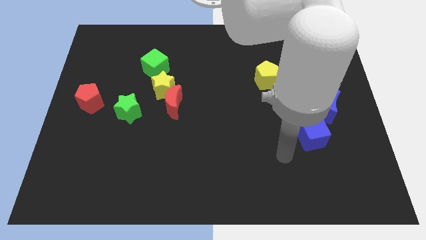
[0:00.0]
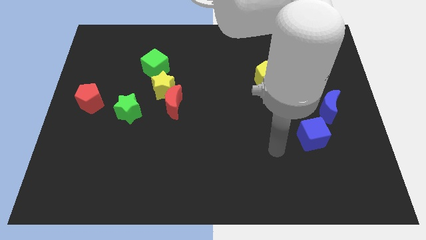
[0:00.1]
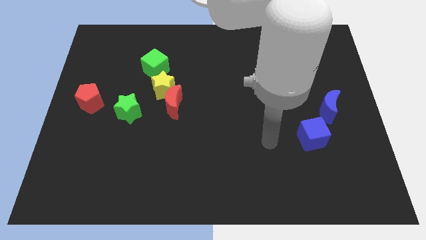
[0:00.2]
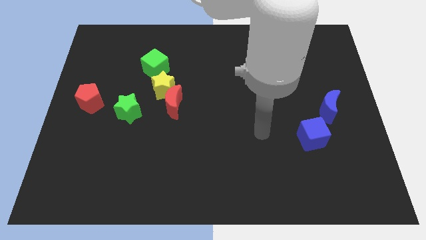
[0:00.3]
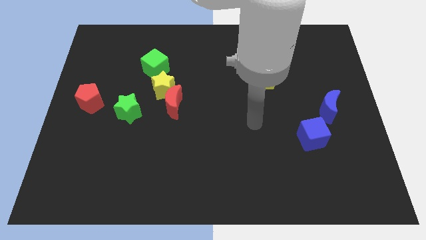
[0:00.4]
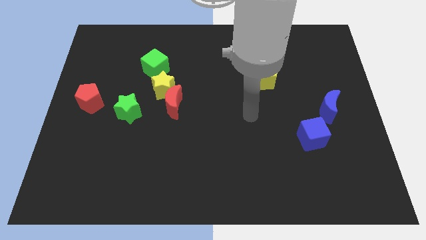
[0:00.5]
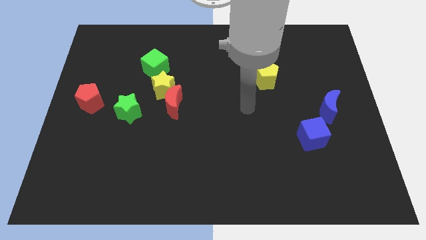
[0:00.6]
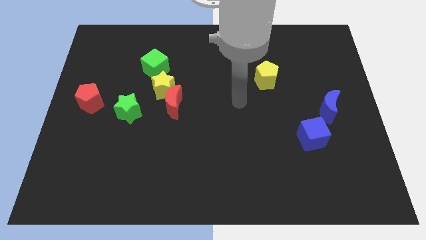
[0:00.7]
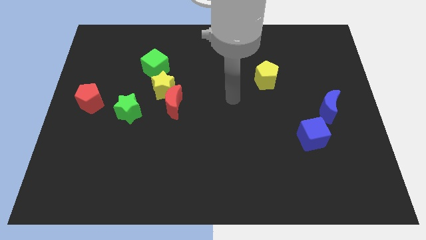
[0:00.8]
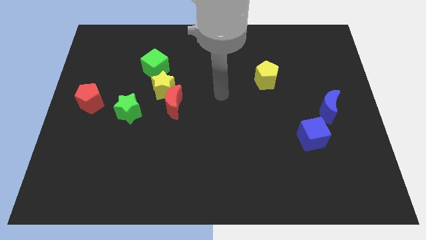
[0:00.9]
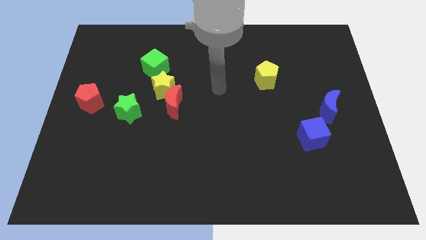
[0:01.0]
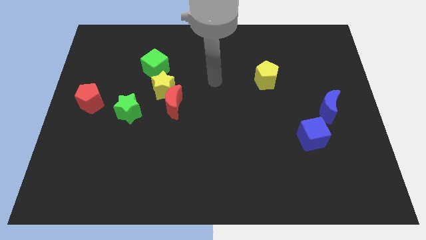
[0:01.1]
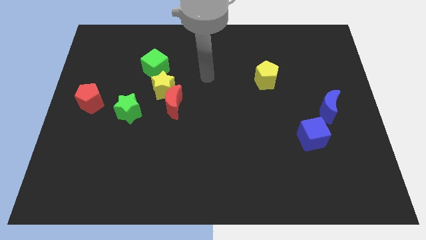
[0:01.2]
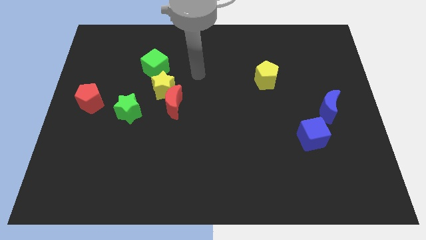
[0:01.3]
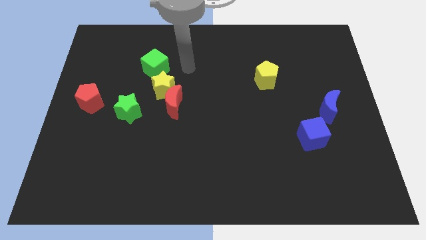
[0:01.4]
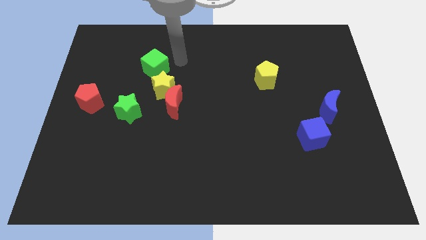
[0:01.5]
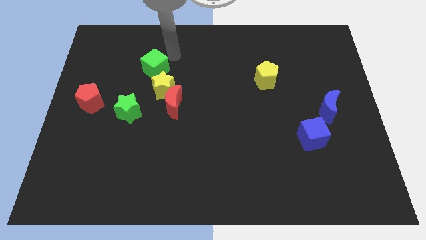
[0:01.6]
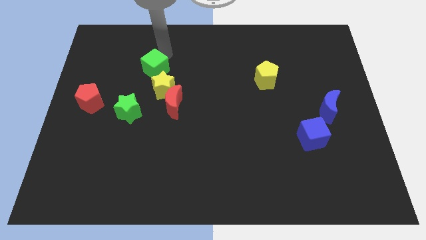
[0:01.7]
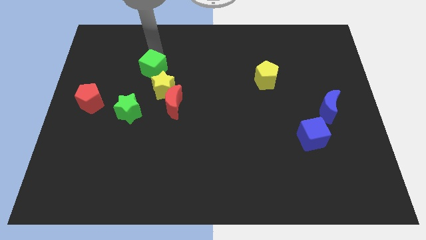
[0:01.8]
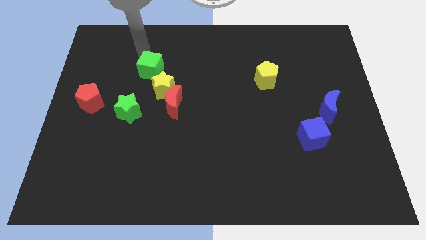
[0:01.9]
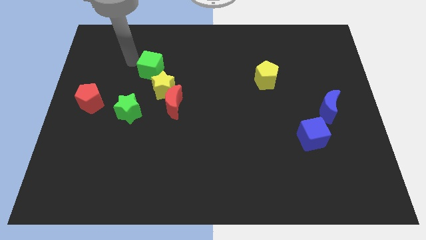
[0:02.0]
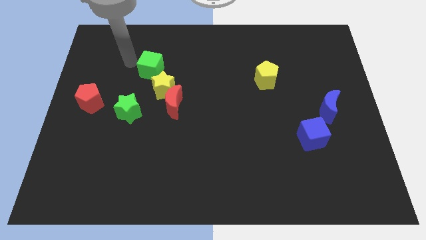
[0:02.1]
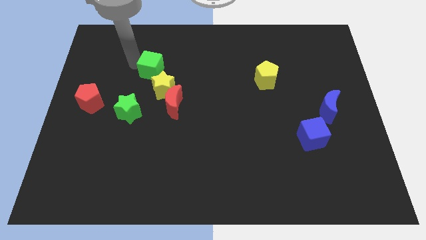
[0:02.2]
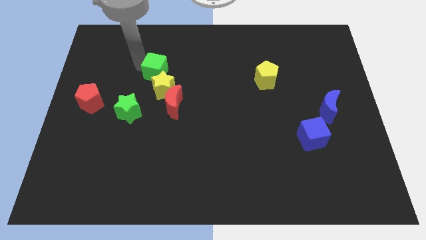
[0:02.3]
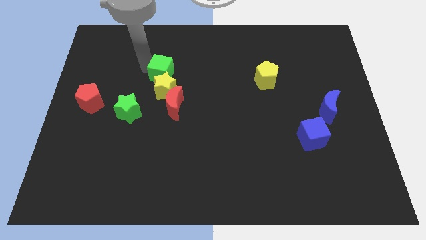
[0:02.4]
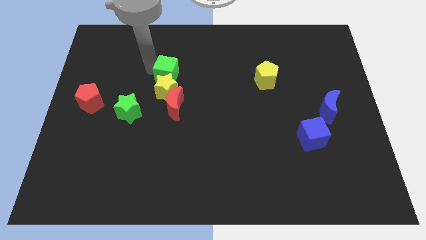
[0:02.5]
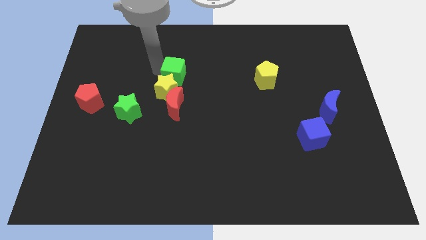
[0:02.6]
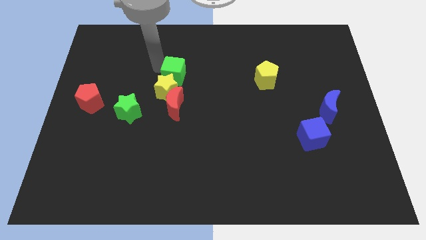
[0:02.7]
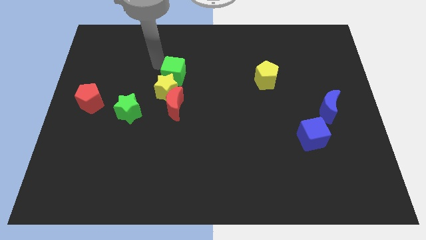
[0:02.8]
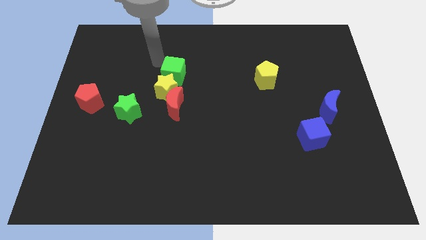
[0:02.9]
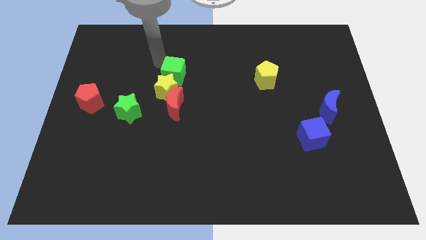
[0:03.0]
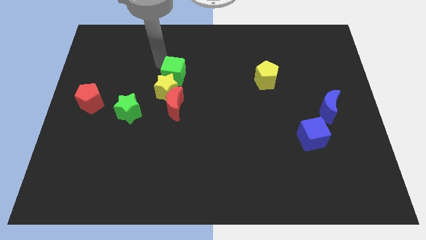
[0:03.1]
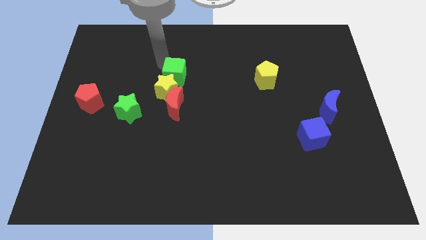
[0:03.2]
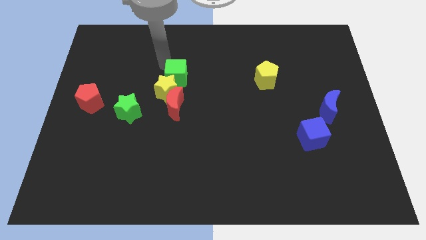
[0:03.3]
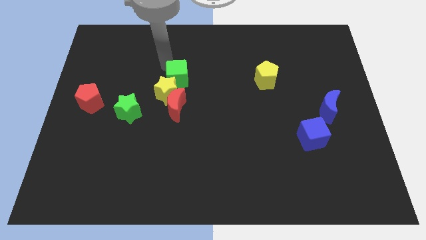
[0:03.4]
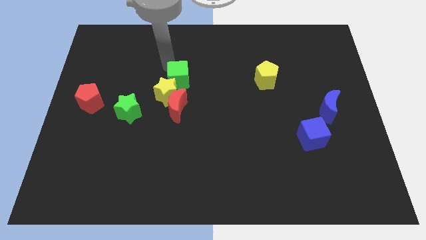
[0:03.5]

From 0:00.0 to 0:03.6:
slide the green cube down and to the right a little bit

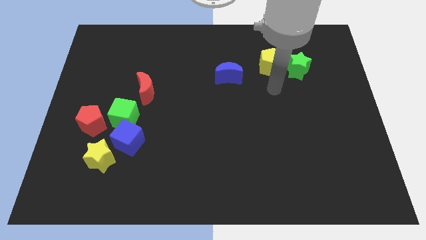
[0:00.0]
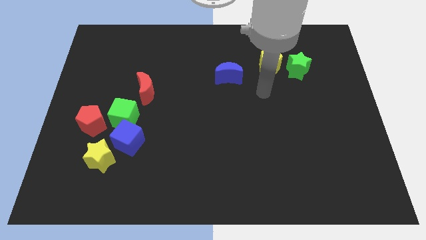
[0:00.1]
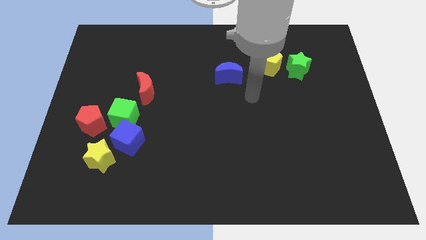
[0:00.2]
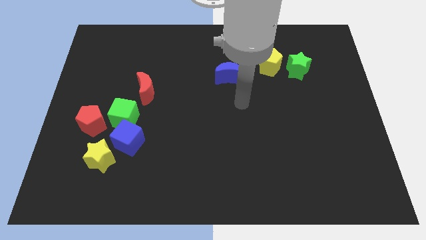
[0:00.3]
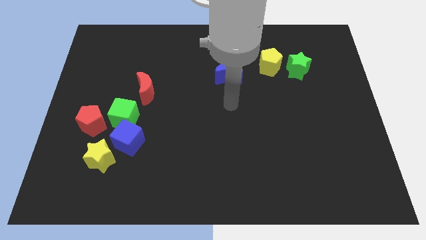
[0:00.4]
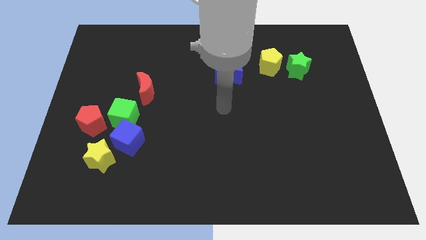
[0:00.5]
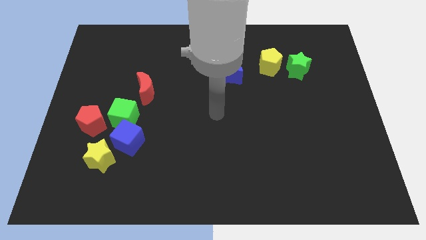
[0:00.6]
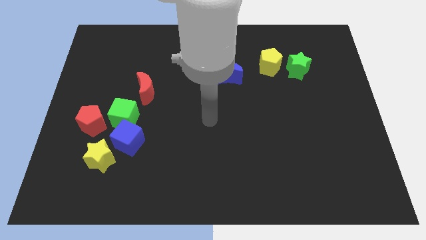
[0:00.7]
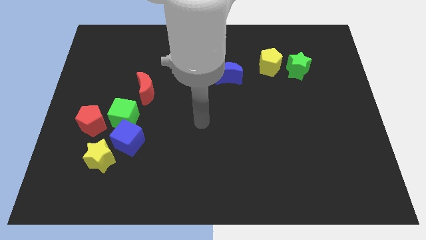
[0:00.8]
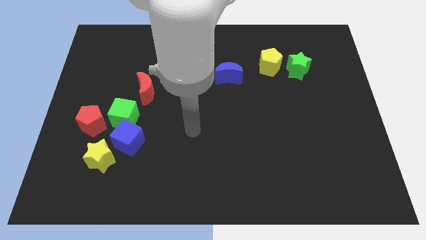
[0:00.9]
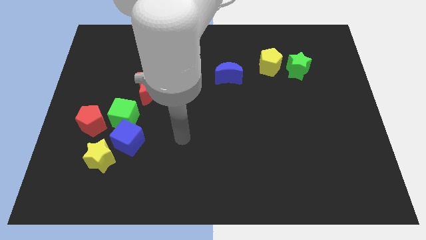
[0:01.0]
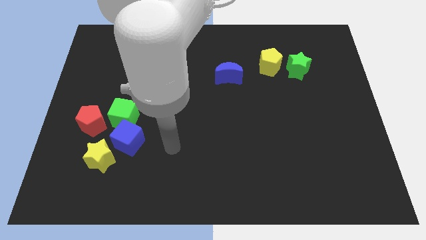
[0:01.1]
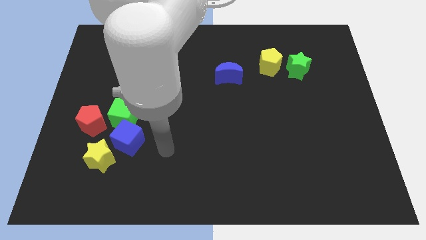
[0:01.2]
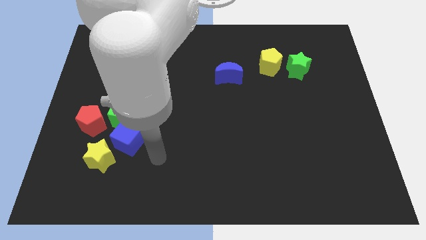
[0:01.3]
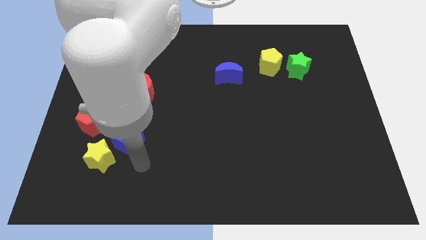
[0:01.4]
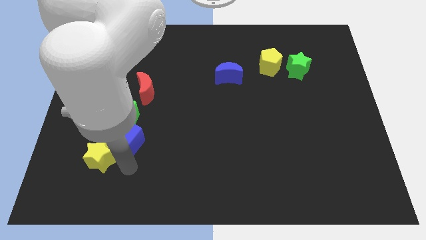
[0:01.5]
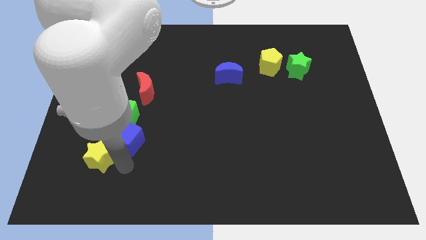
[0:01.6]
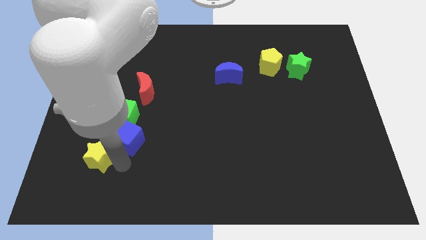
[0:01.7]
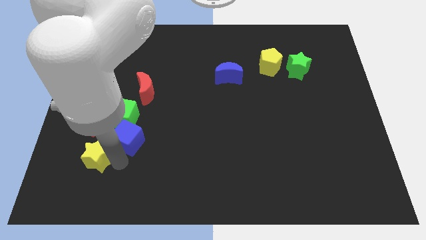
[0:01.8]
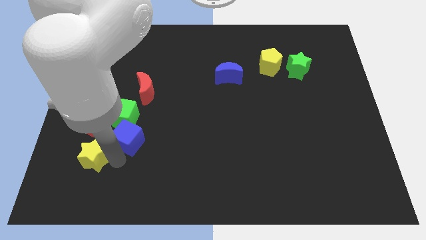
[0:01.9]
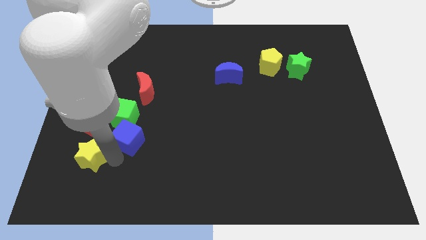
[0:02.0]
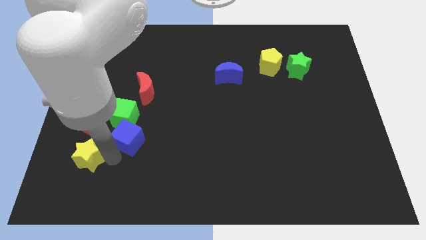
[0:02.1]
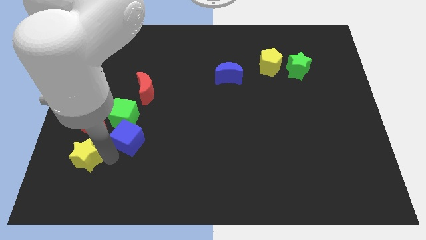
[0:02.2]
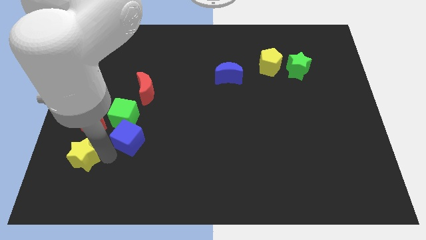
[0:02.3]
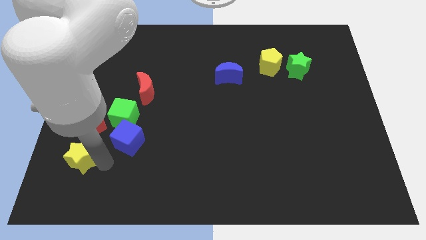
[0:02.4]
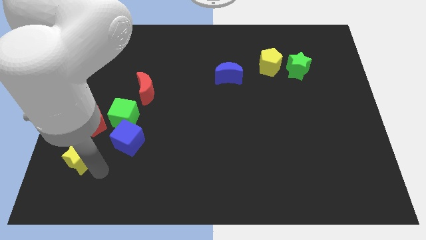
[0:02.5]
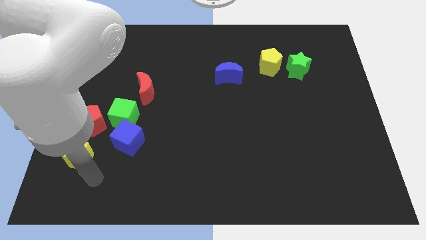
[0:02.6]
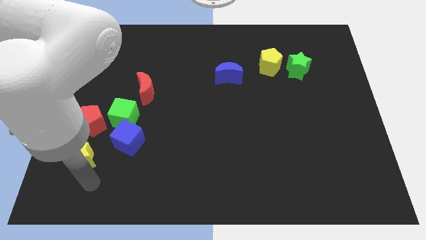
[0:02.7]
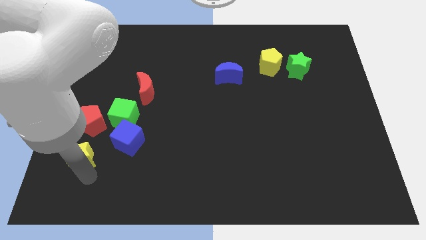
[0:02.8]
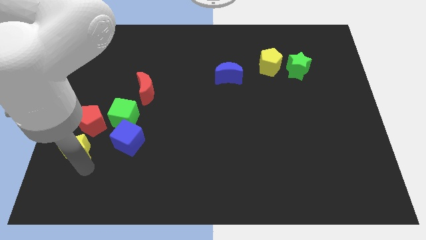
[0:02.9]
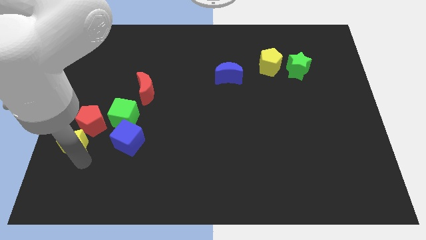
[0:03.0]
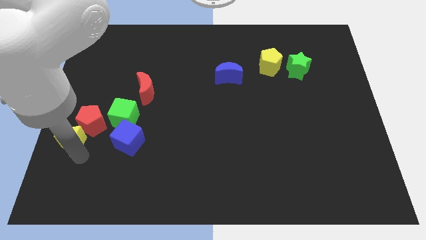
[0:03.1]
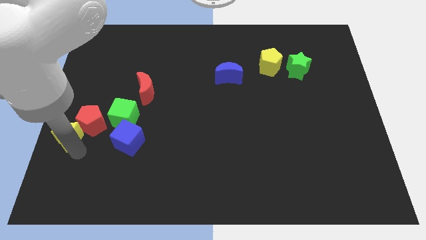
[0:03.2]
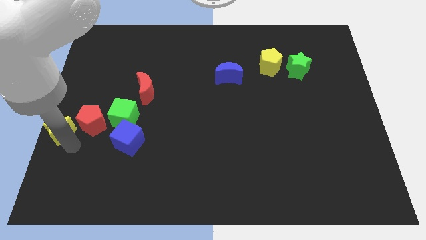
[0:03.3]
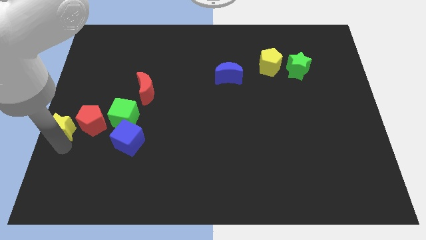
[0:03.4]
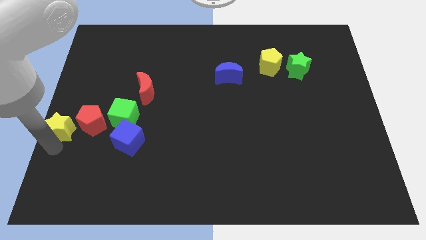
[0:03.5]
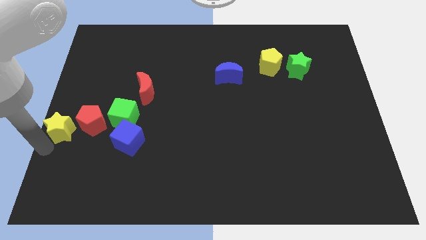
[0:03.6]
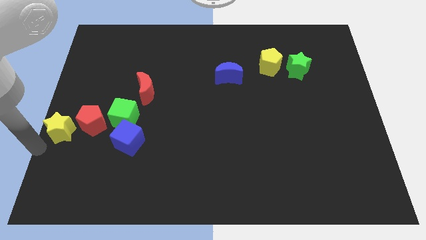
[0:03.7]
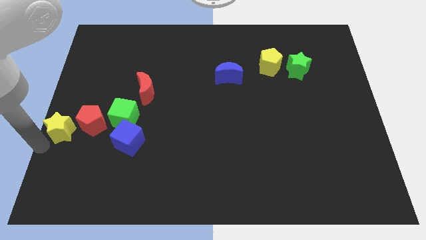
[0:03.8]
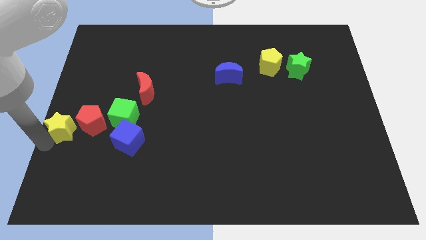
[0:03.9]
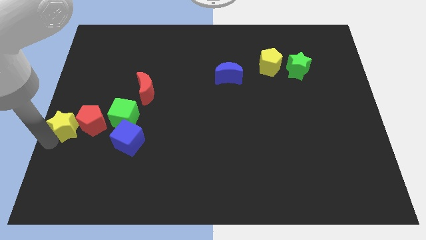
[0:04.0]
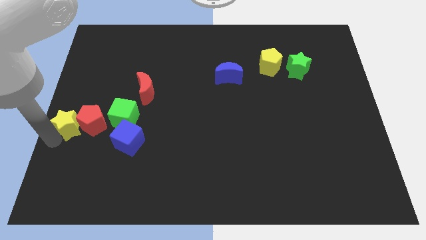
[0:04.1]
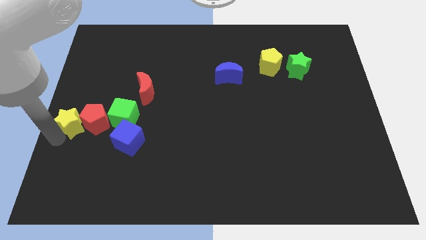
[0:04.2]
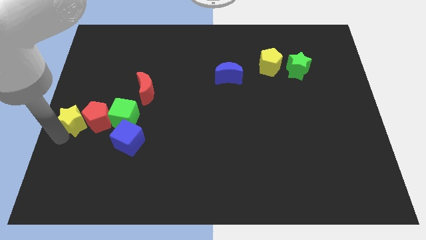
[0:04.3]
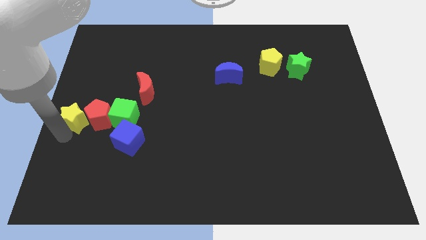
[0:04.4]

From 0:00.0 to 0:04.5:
slide the yellow star slightly up
